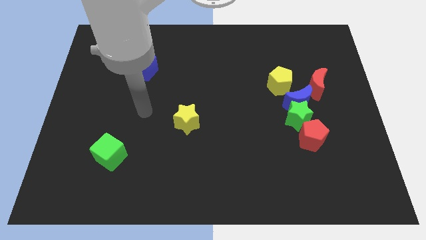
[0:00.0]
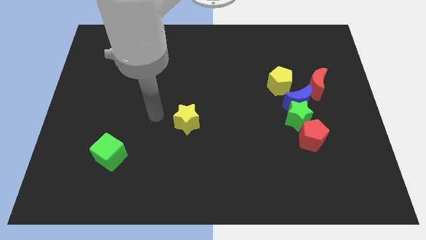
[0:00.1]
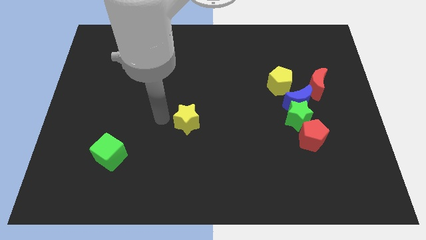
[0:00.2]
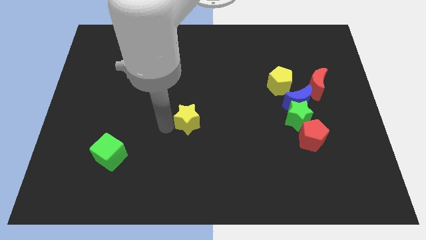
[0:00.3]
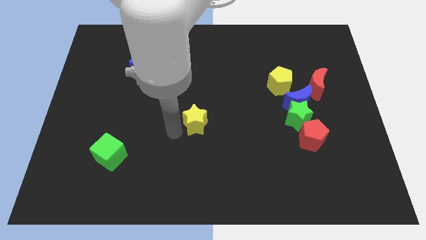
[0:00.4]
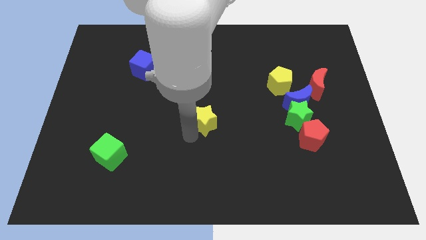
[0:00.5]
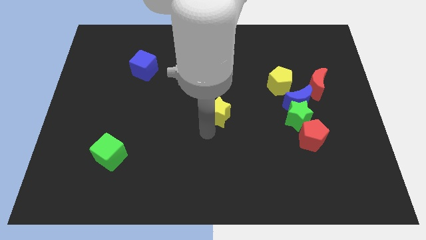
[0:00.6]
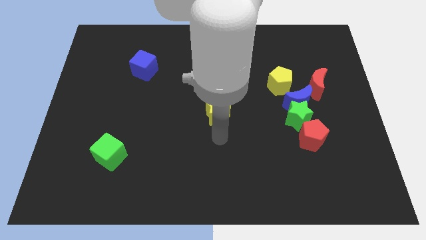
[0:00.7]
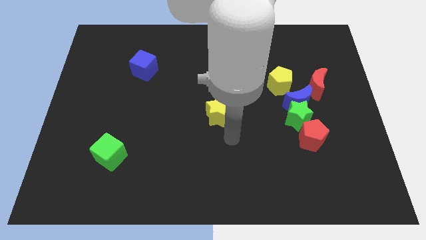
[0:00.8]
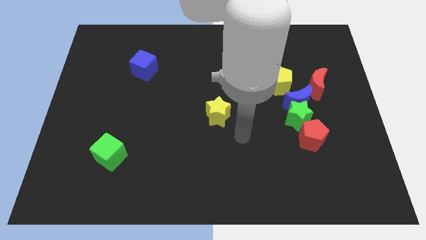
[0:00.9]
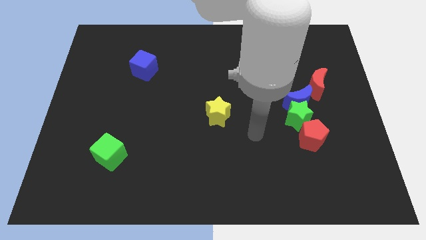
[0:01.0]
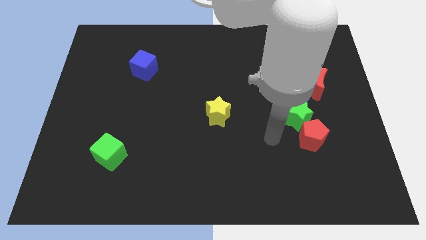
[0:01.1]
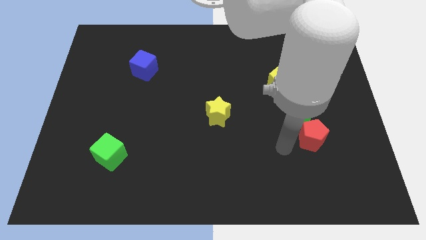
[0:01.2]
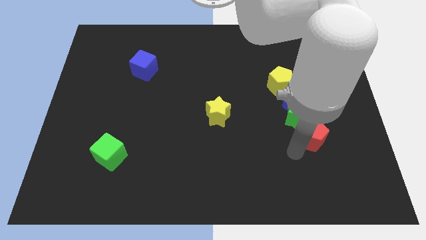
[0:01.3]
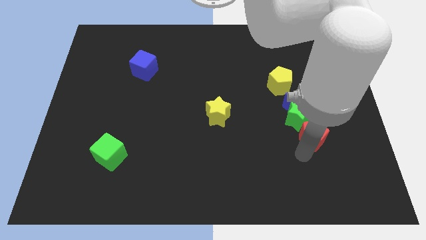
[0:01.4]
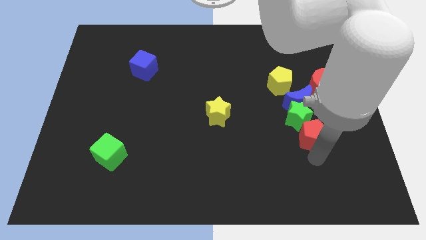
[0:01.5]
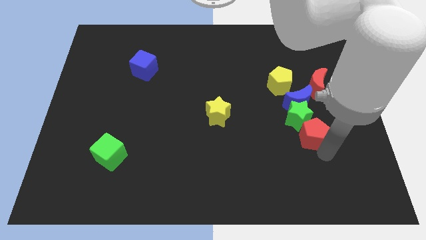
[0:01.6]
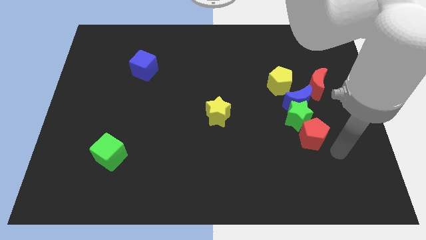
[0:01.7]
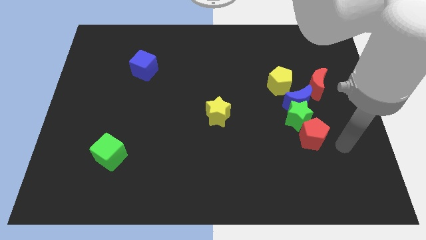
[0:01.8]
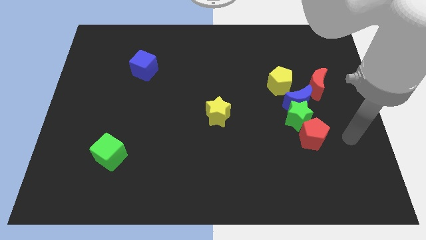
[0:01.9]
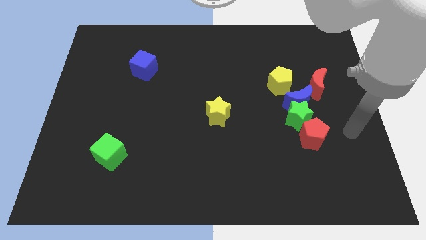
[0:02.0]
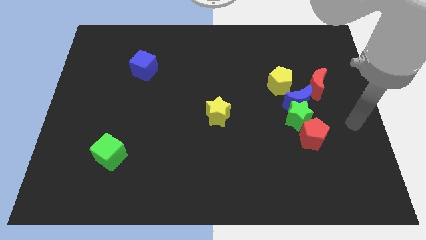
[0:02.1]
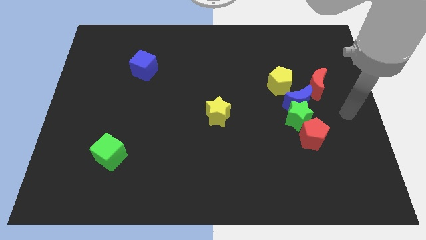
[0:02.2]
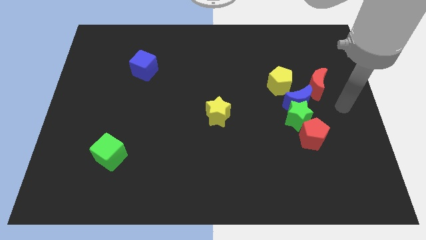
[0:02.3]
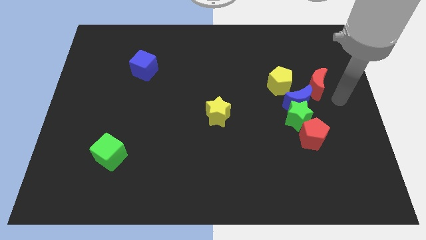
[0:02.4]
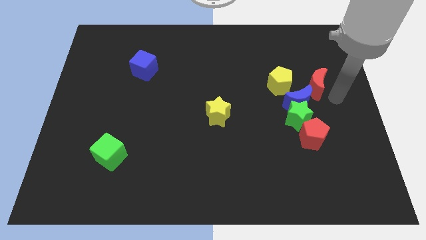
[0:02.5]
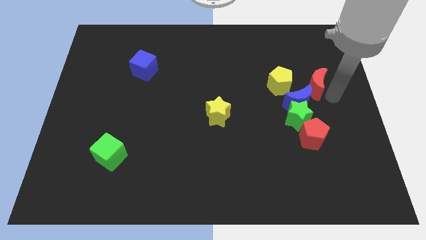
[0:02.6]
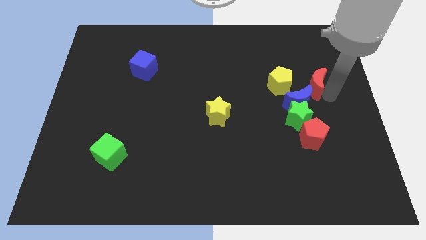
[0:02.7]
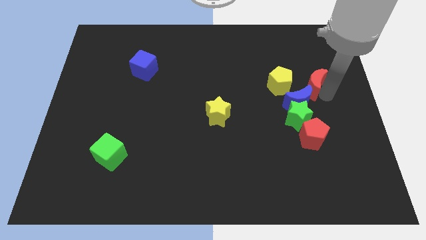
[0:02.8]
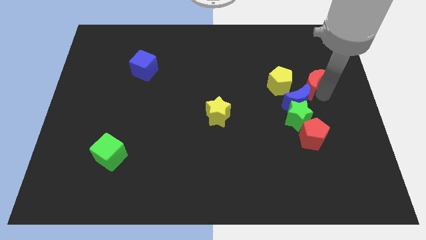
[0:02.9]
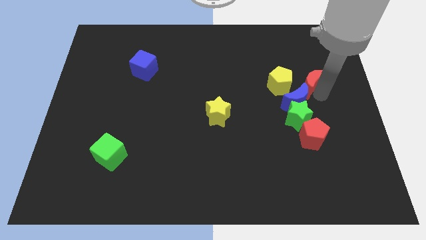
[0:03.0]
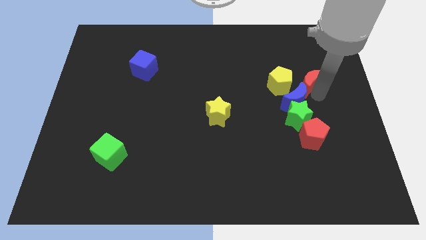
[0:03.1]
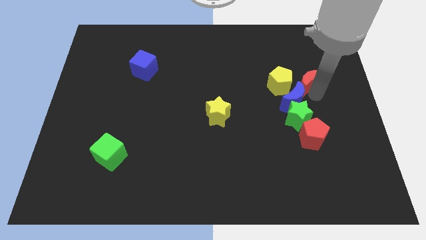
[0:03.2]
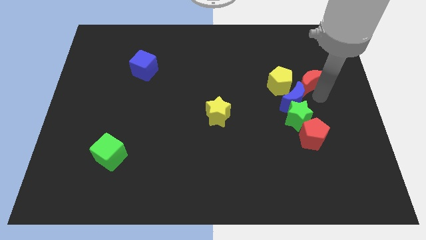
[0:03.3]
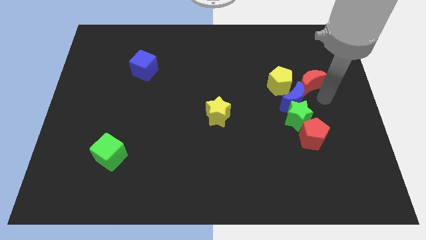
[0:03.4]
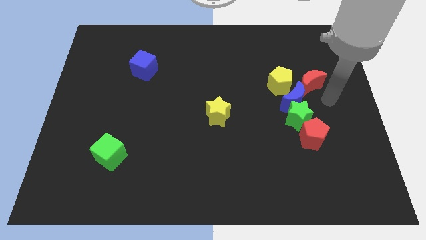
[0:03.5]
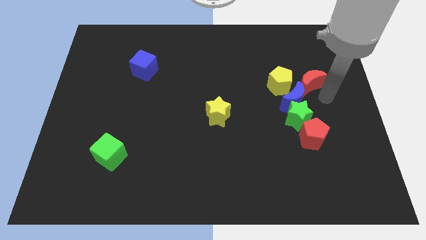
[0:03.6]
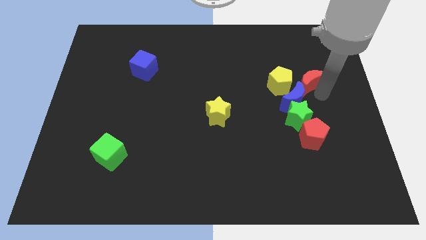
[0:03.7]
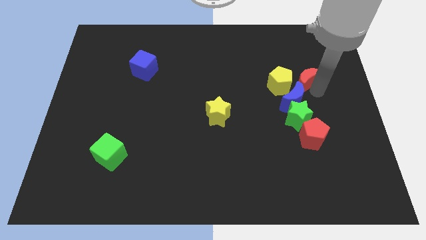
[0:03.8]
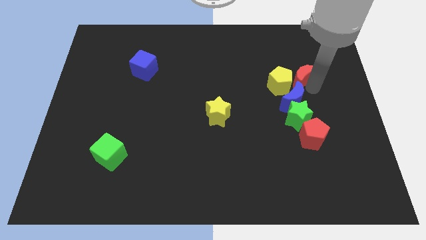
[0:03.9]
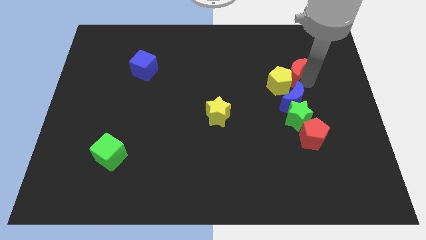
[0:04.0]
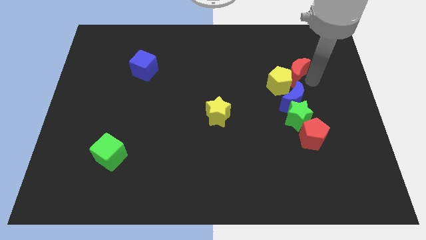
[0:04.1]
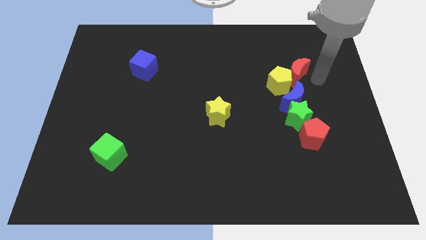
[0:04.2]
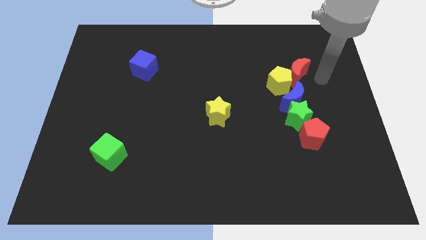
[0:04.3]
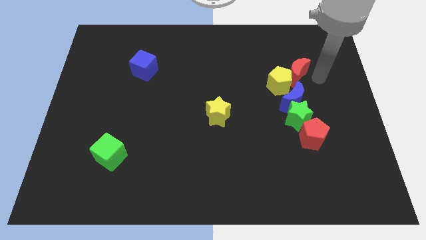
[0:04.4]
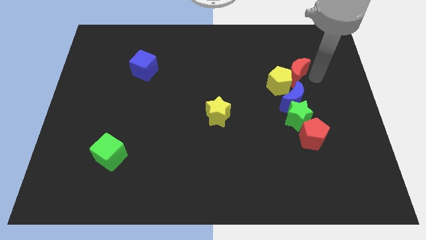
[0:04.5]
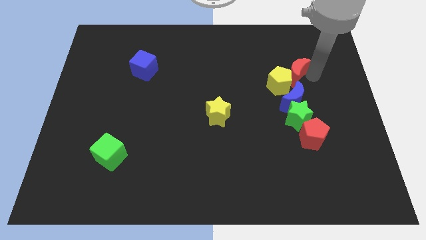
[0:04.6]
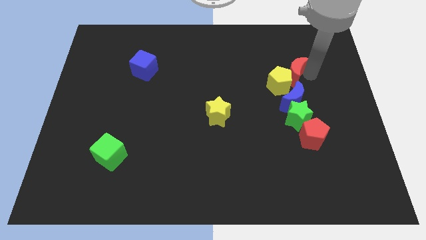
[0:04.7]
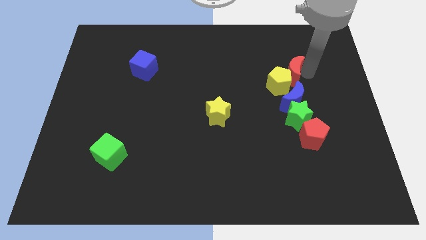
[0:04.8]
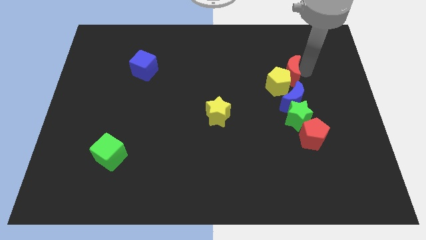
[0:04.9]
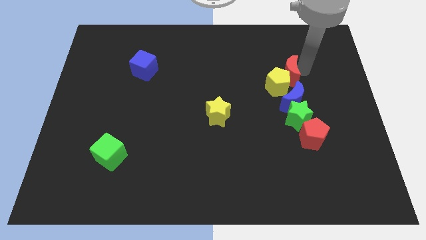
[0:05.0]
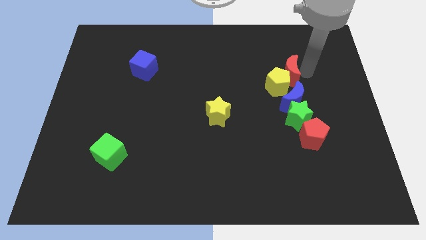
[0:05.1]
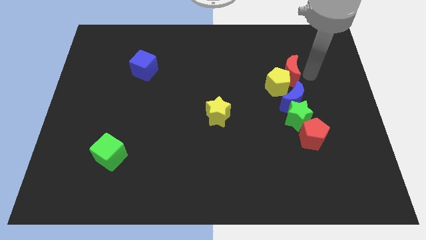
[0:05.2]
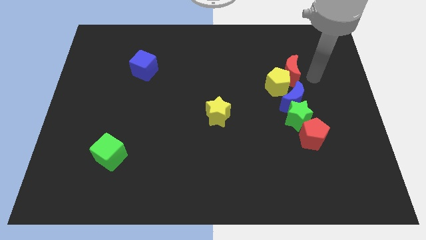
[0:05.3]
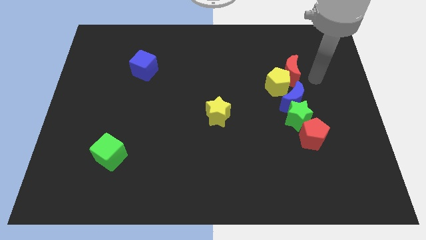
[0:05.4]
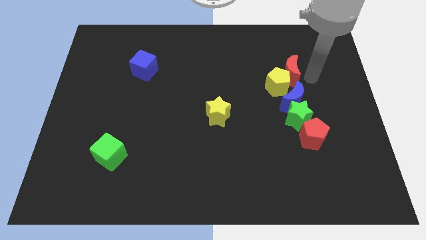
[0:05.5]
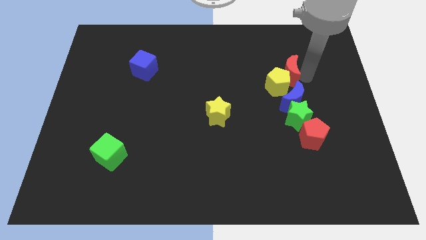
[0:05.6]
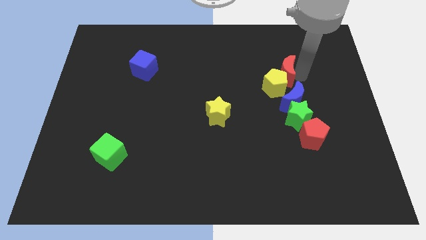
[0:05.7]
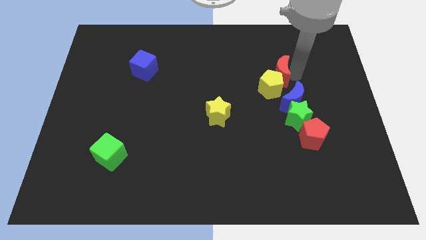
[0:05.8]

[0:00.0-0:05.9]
slightly push the red moon left

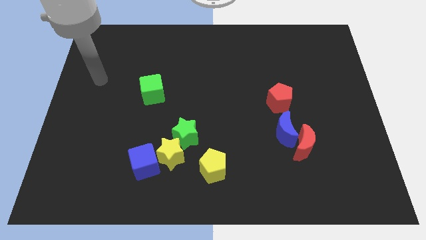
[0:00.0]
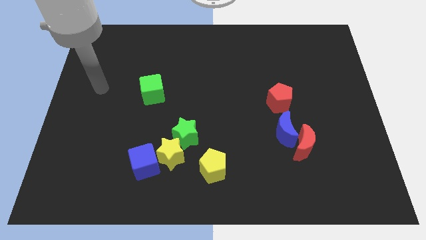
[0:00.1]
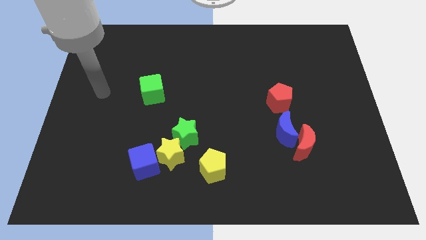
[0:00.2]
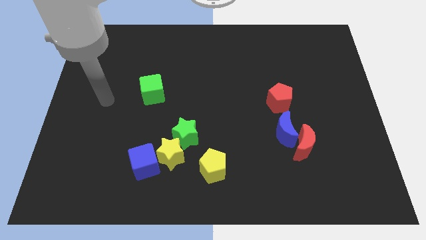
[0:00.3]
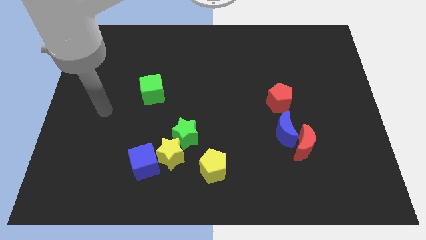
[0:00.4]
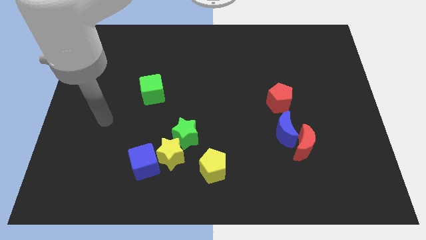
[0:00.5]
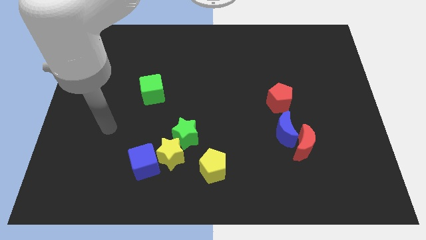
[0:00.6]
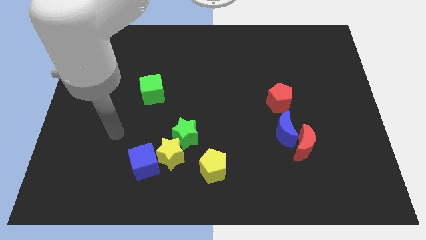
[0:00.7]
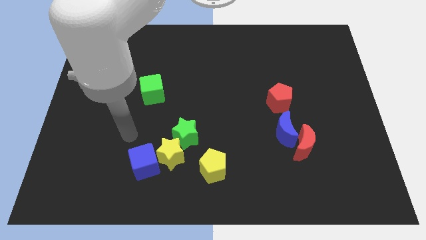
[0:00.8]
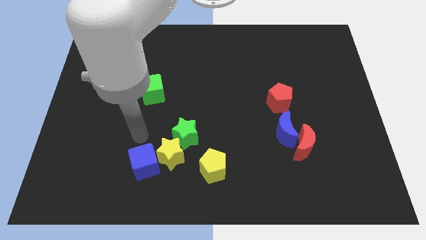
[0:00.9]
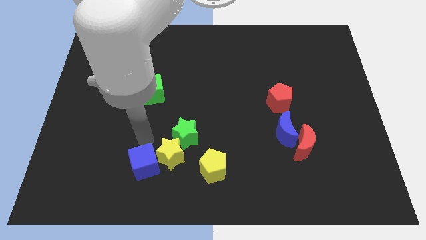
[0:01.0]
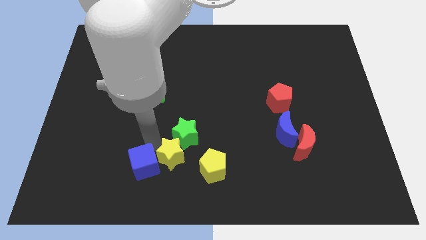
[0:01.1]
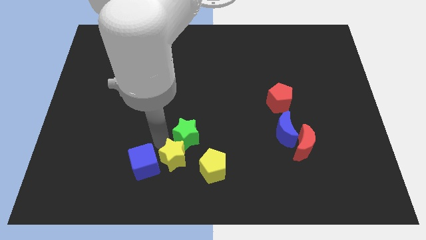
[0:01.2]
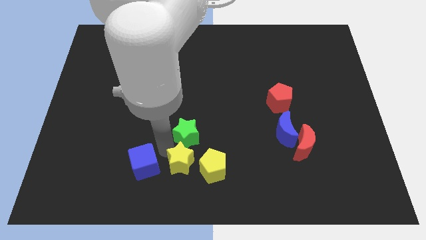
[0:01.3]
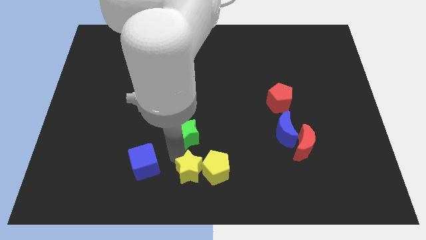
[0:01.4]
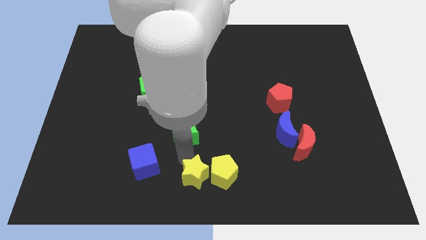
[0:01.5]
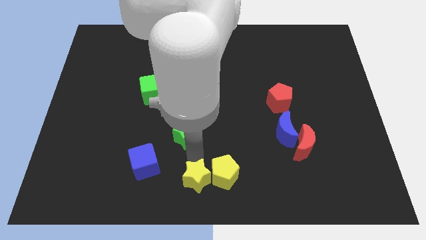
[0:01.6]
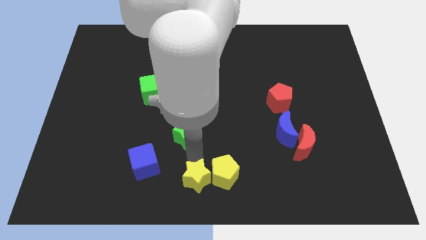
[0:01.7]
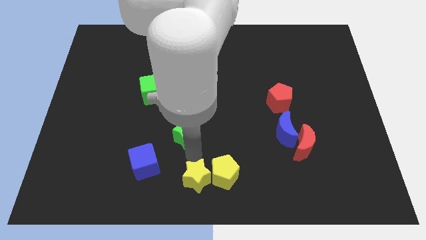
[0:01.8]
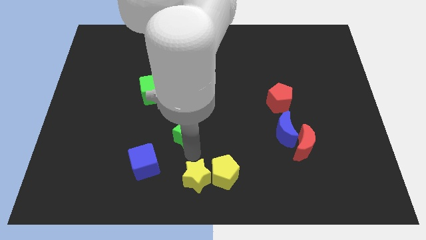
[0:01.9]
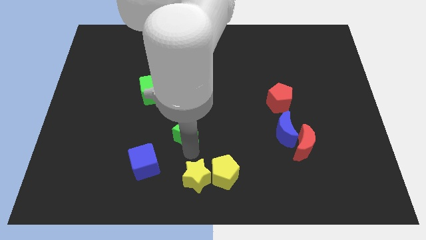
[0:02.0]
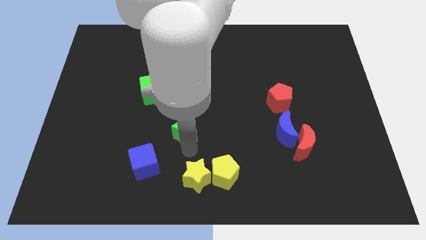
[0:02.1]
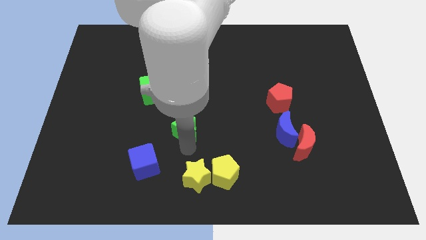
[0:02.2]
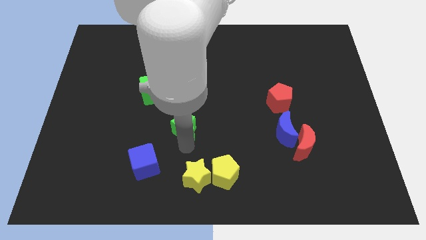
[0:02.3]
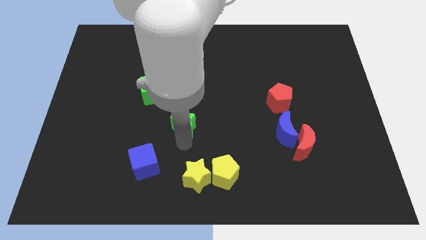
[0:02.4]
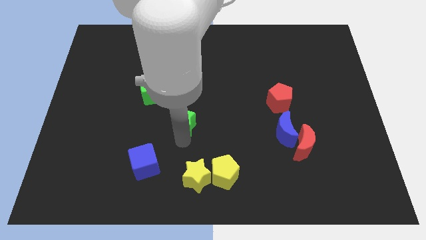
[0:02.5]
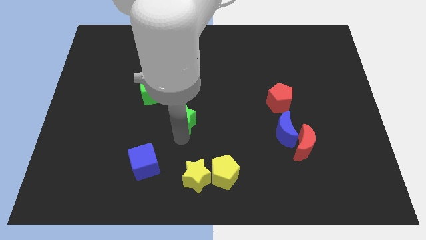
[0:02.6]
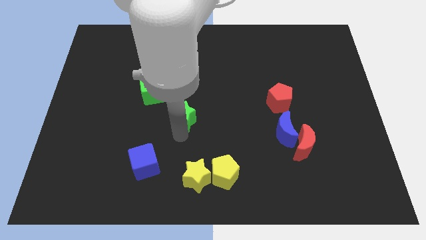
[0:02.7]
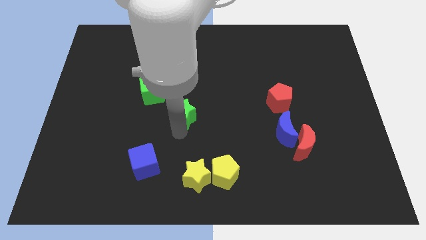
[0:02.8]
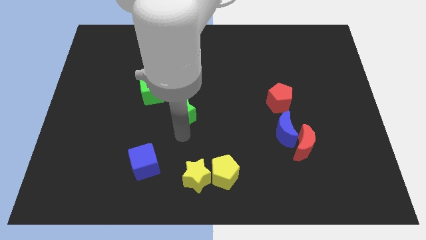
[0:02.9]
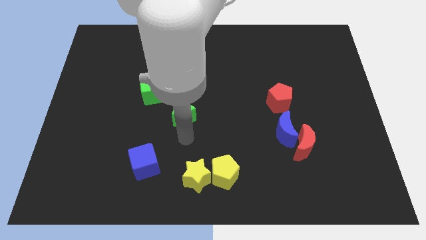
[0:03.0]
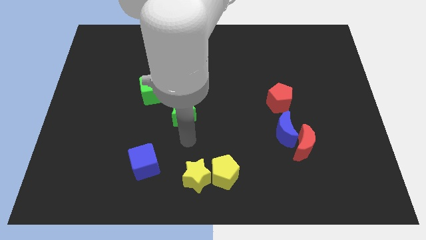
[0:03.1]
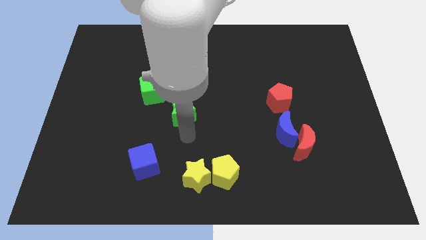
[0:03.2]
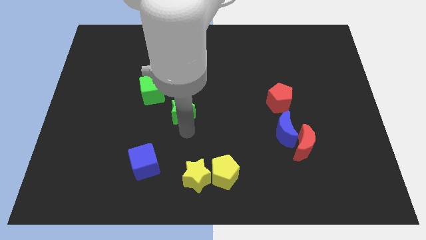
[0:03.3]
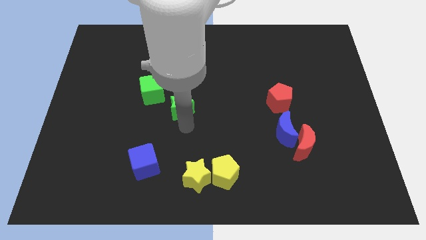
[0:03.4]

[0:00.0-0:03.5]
slide the green star a little up
